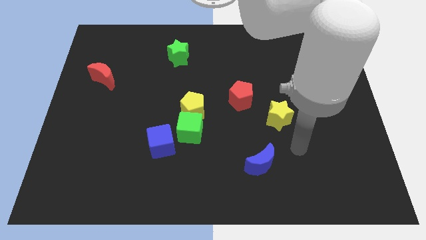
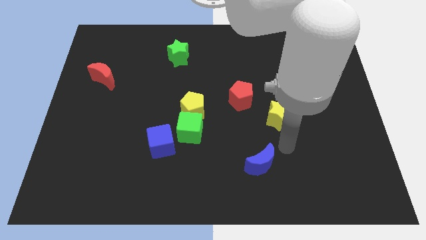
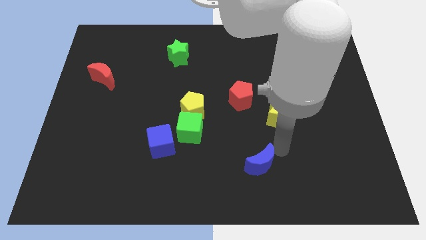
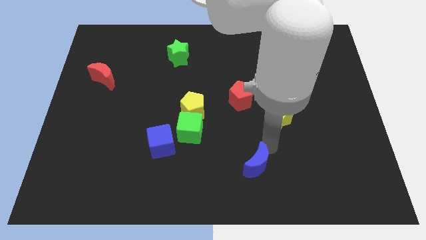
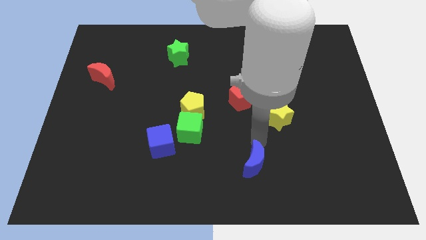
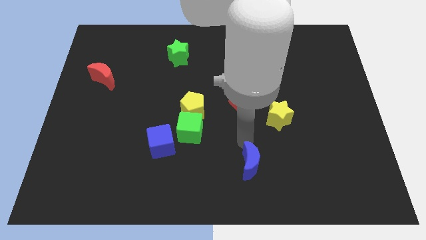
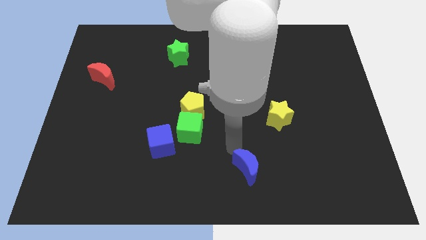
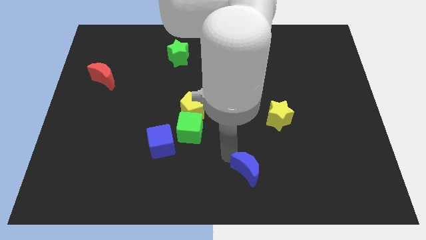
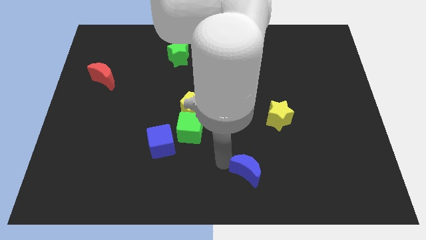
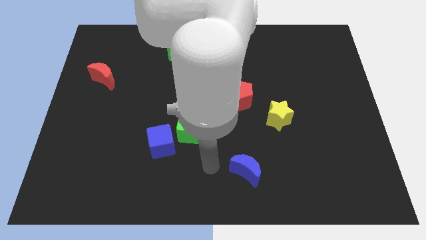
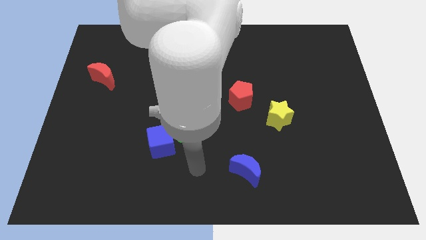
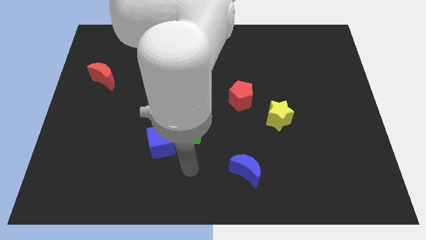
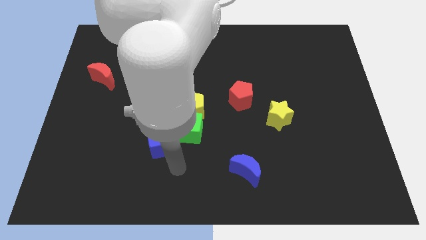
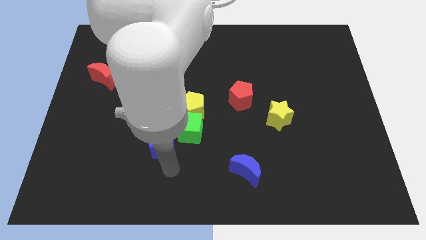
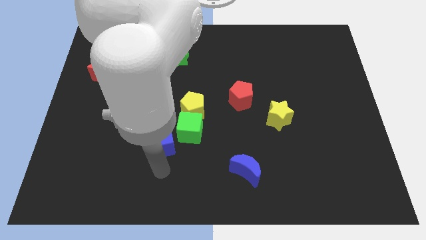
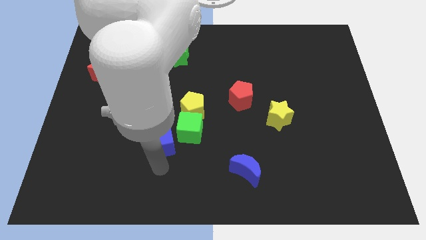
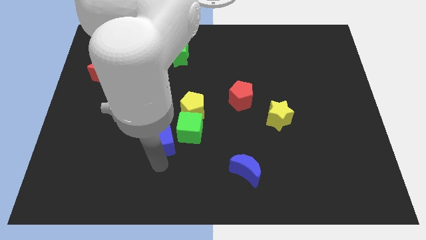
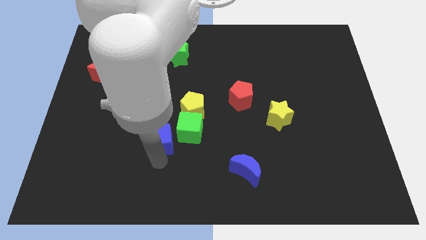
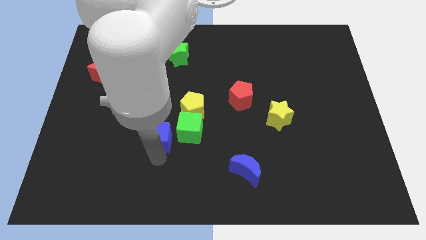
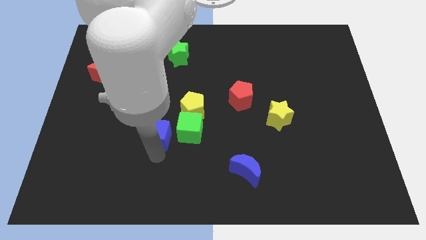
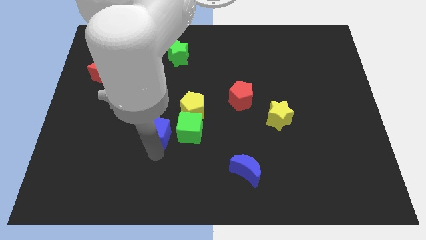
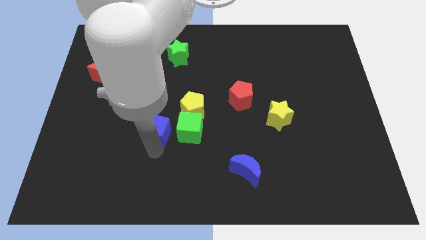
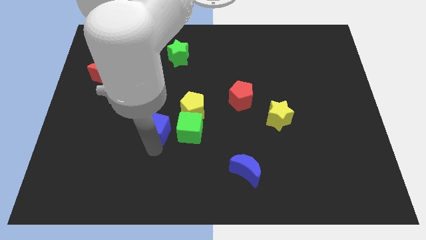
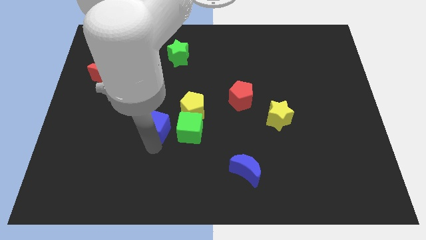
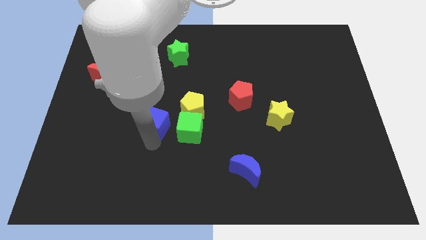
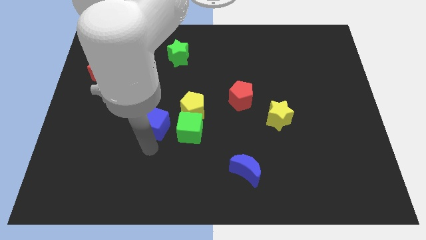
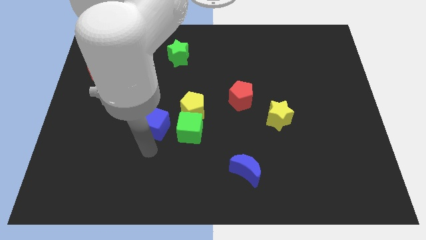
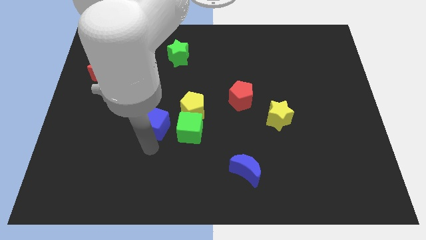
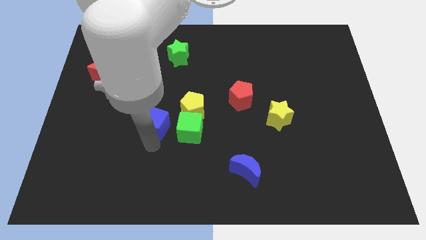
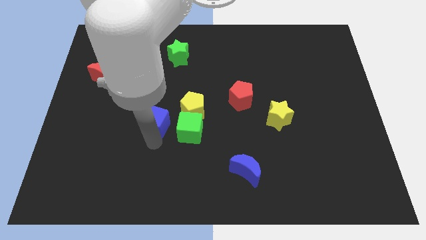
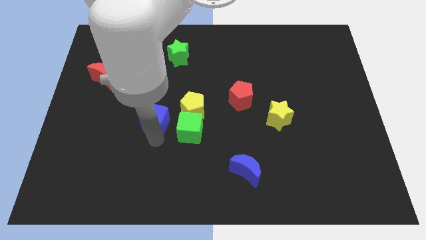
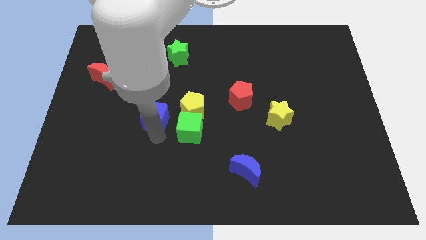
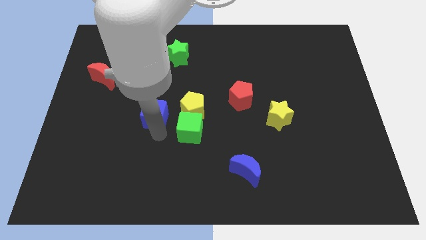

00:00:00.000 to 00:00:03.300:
slightly move the blue cube upwards

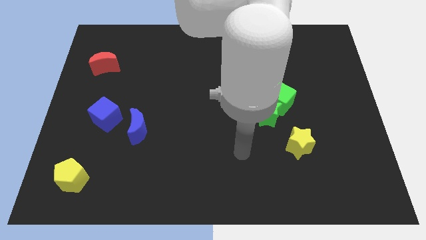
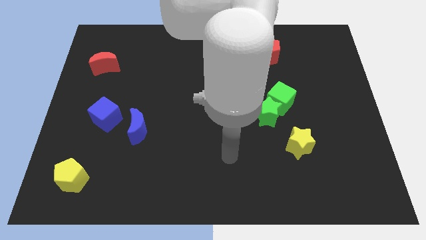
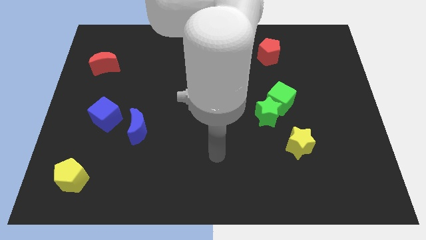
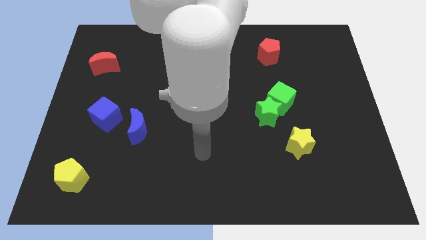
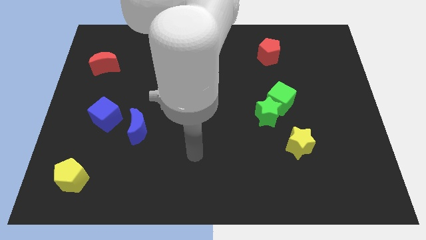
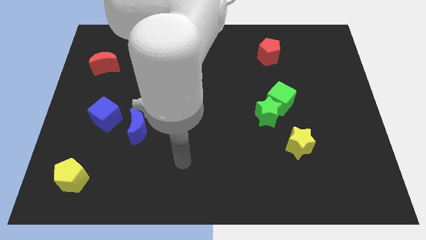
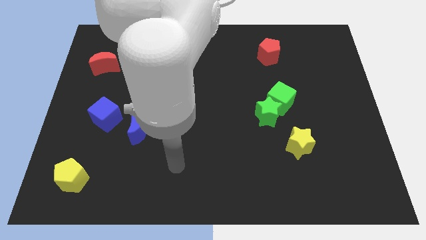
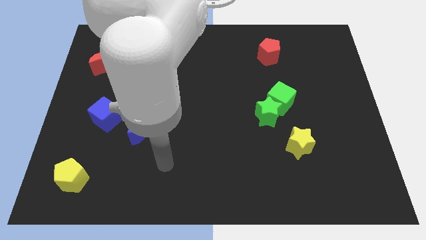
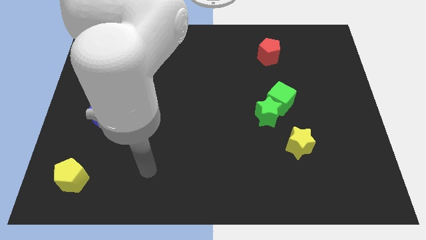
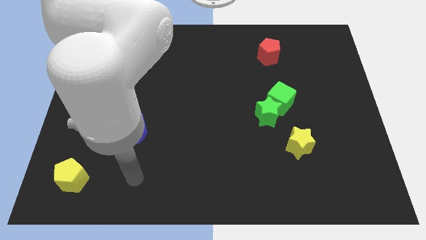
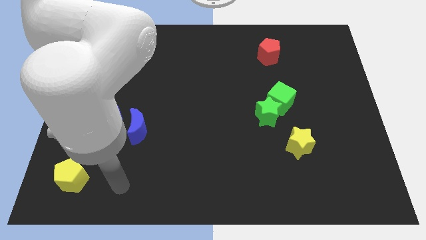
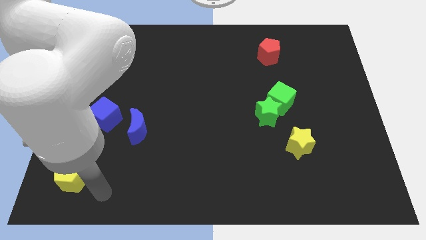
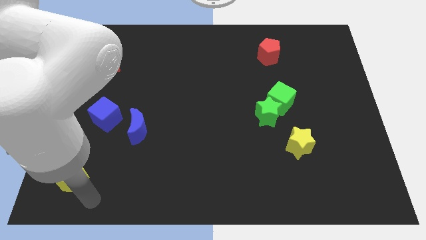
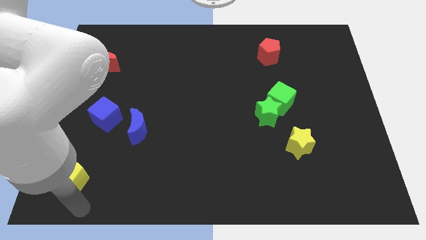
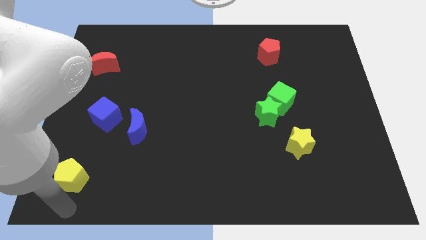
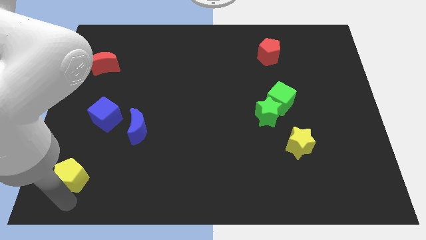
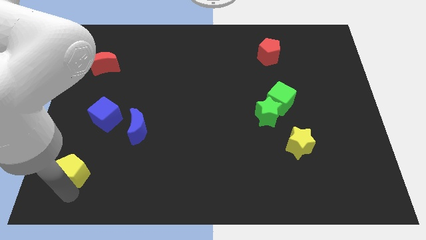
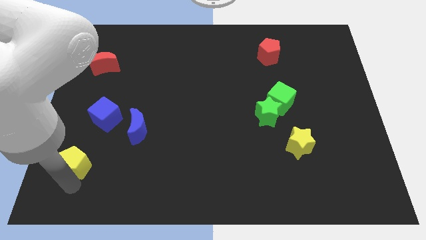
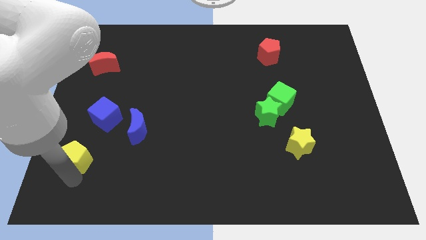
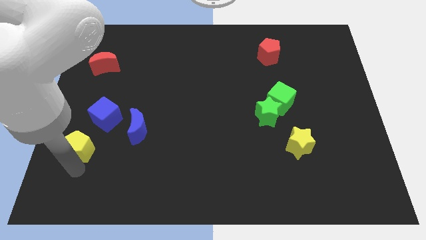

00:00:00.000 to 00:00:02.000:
slightly move the yellow pentagon upwards

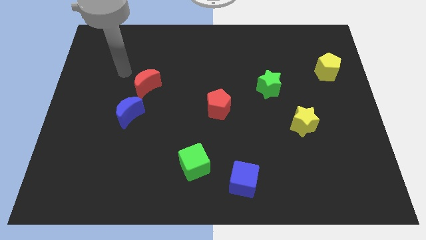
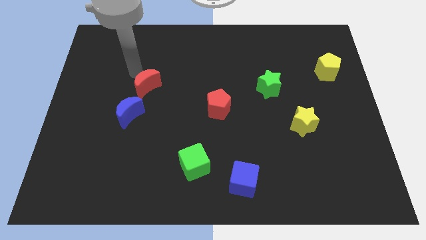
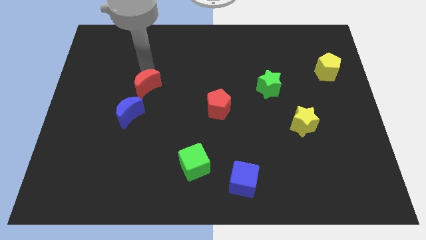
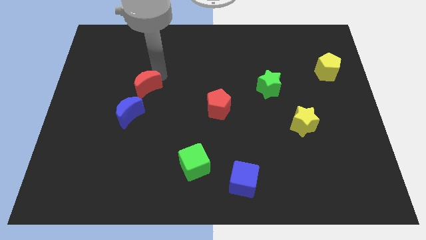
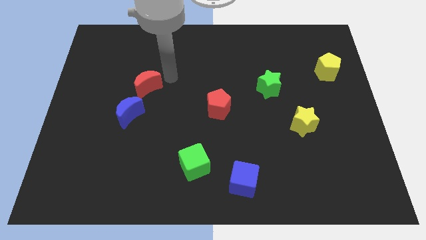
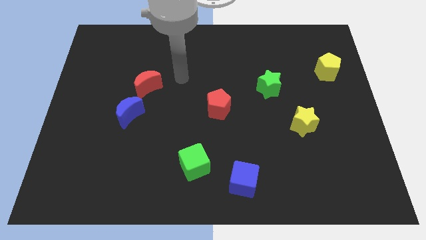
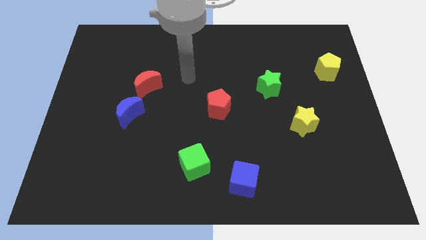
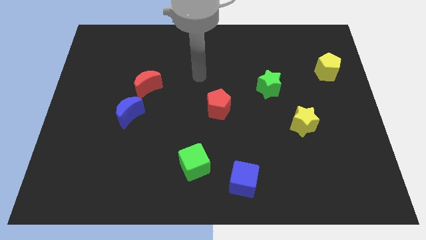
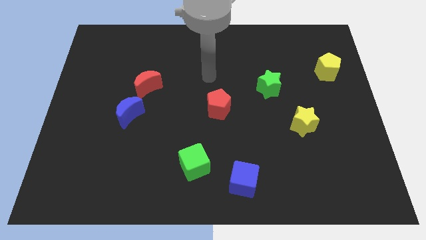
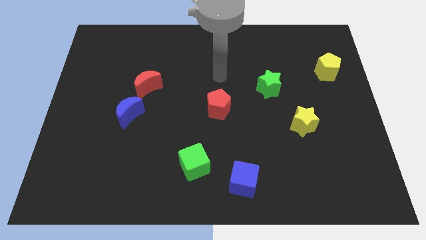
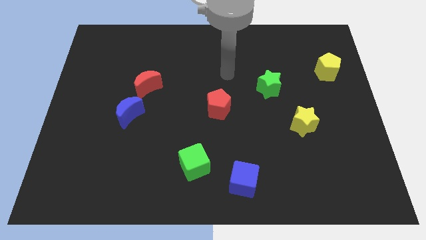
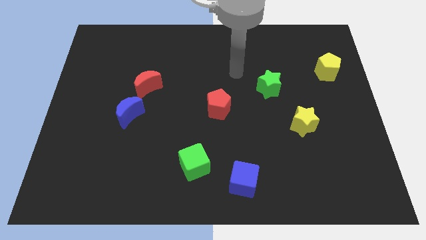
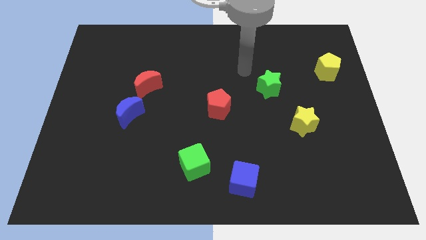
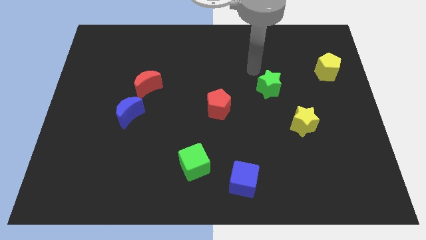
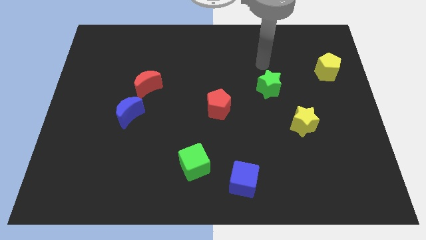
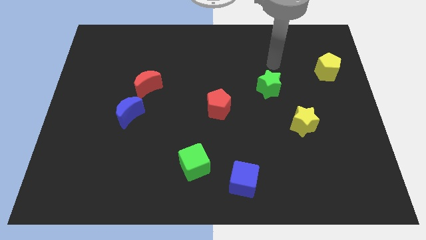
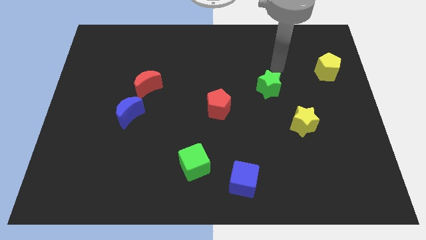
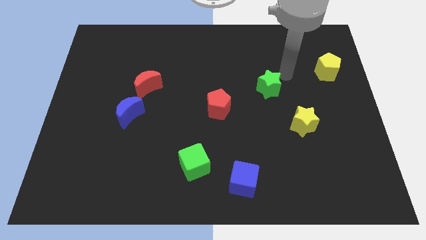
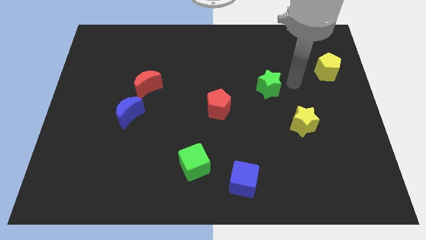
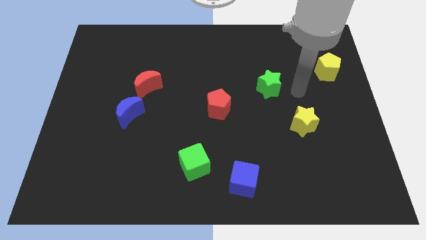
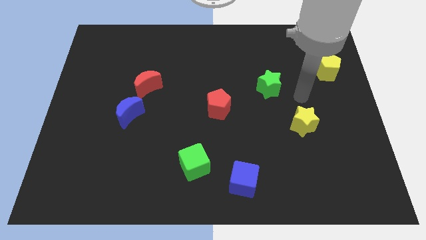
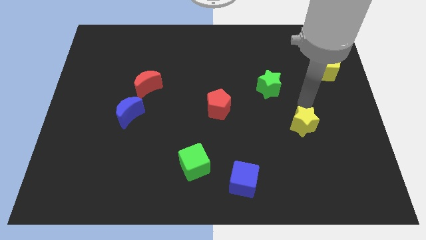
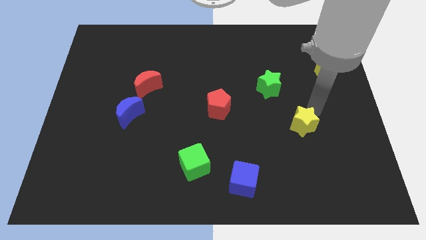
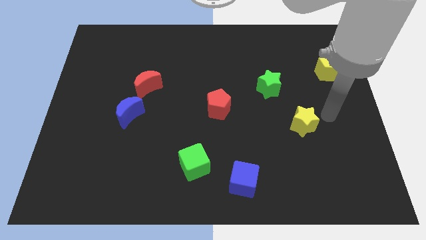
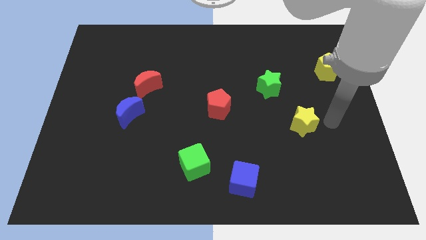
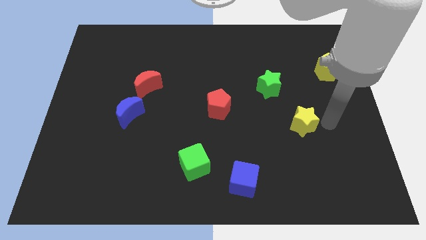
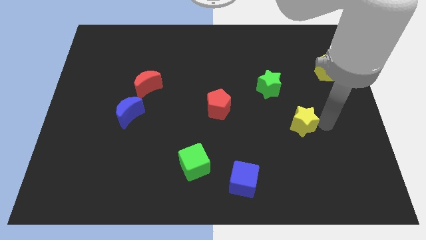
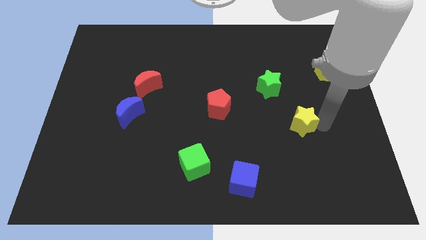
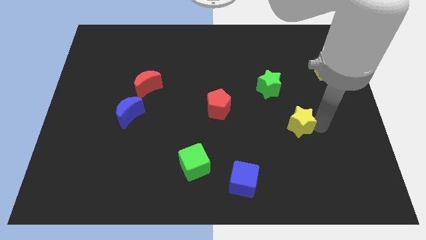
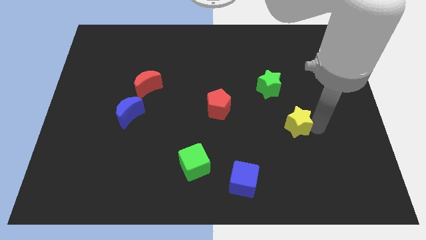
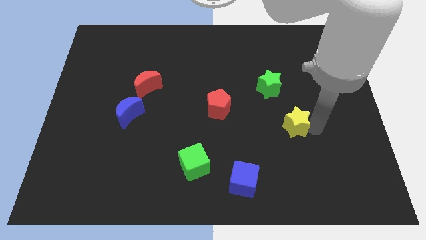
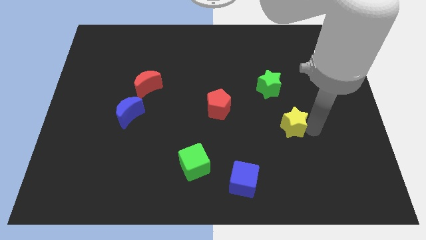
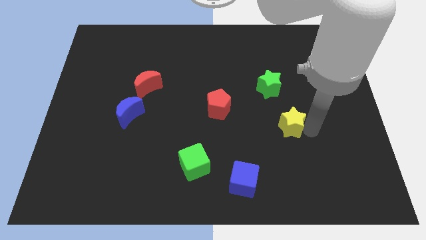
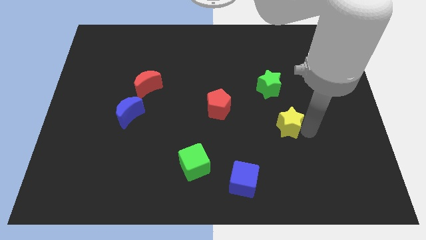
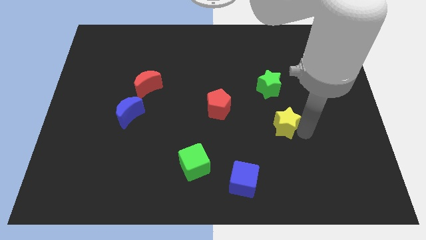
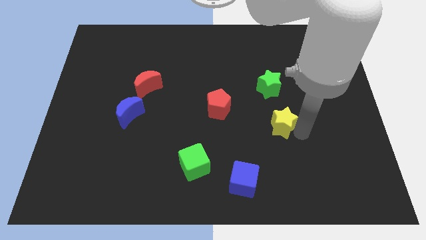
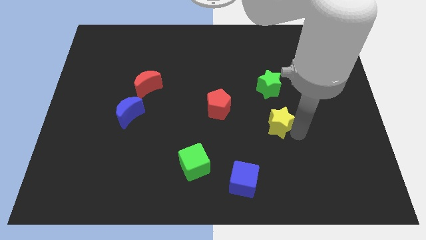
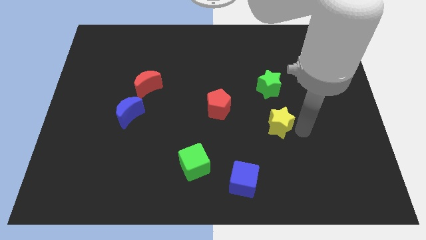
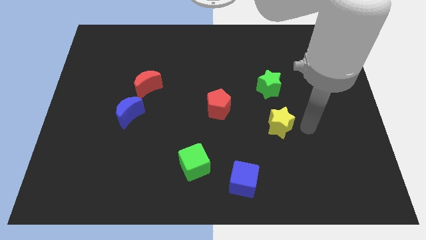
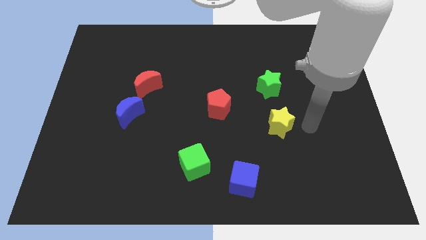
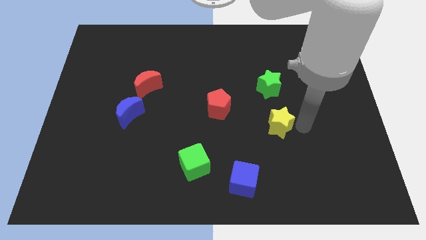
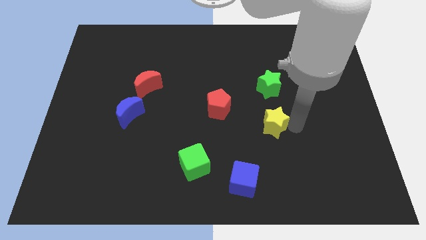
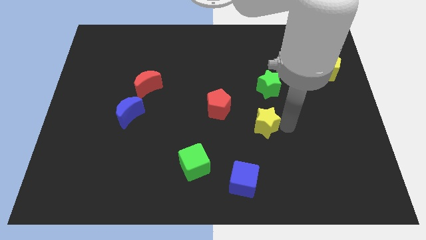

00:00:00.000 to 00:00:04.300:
slide the yellow star slightly left
